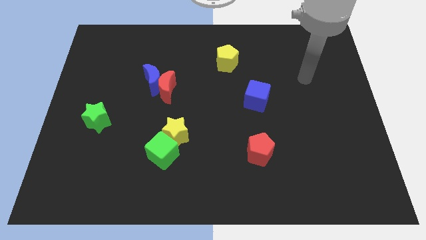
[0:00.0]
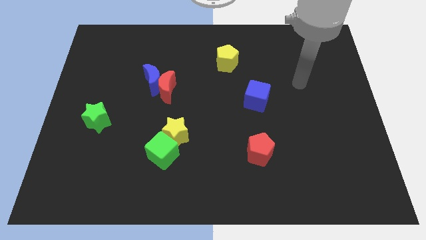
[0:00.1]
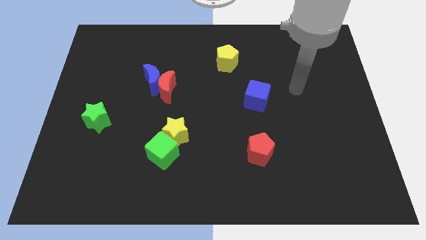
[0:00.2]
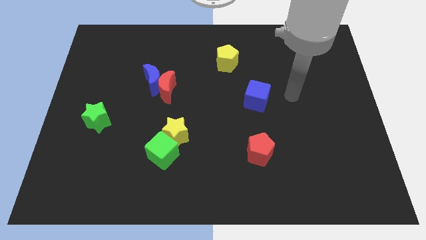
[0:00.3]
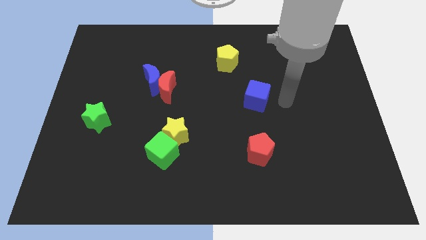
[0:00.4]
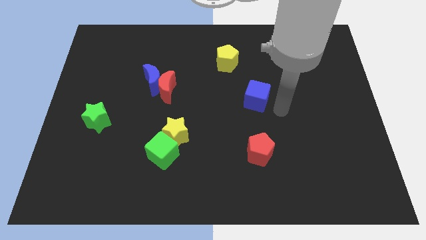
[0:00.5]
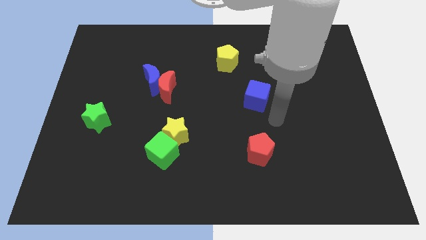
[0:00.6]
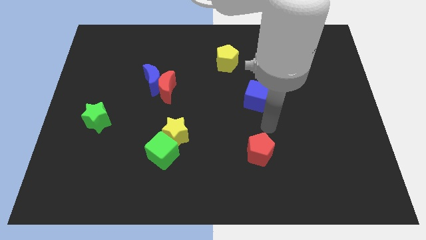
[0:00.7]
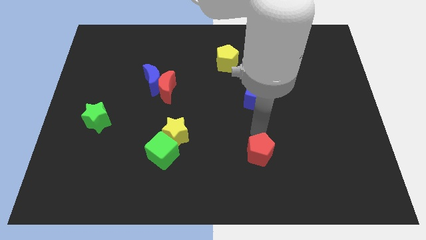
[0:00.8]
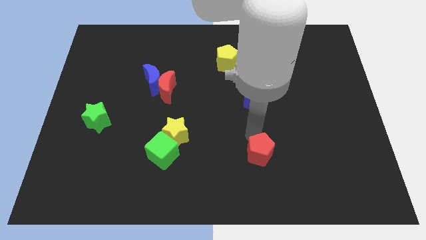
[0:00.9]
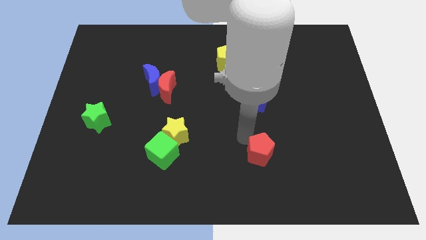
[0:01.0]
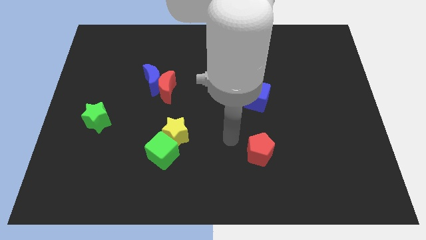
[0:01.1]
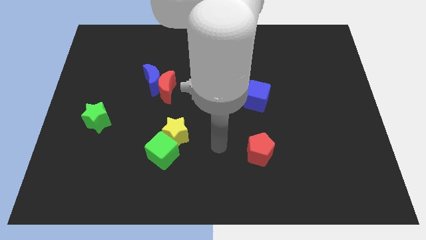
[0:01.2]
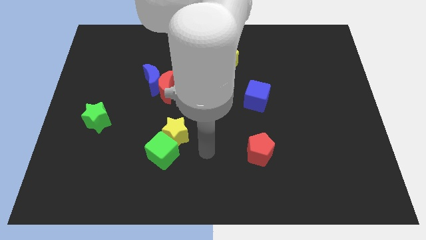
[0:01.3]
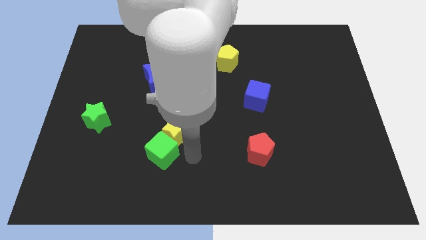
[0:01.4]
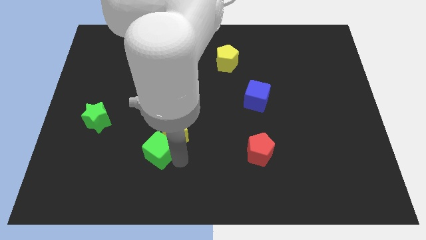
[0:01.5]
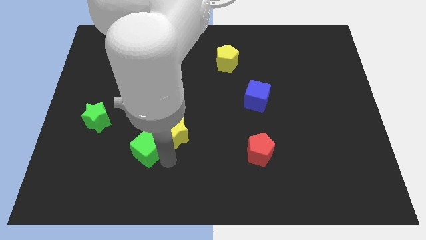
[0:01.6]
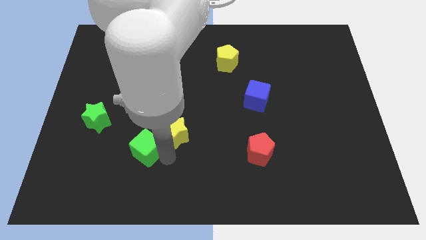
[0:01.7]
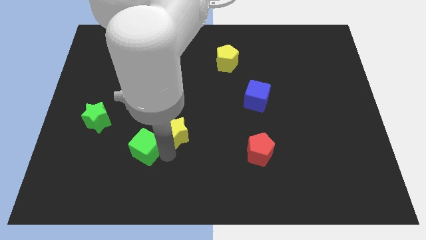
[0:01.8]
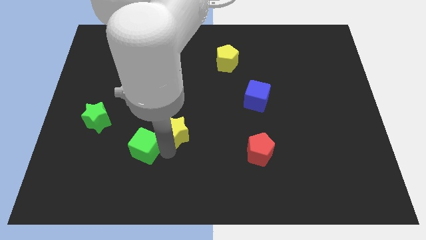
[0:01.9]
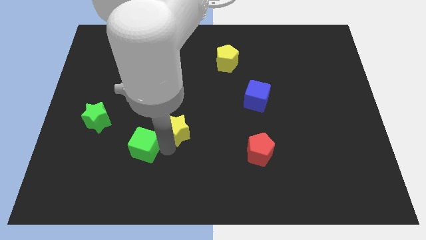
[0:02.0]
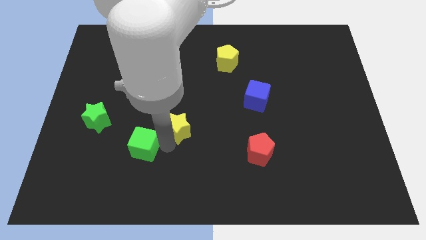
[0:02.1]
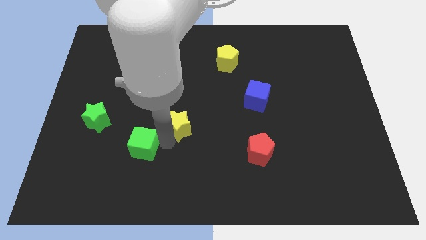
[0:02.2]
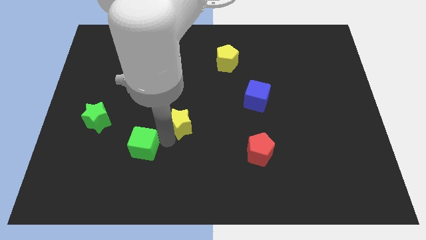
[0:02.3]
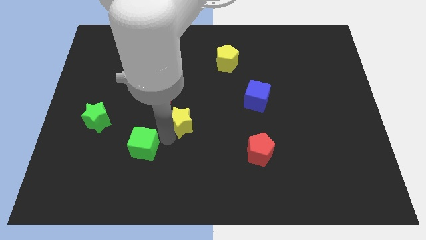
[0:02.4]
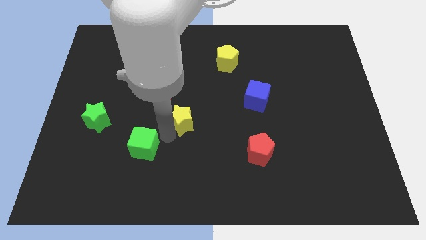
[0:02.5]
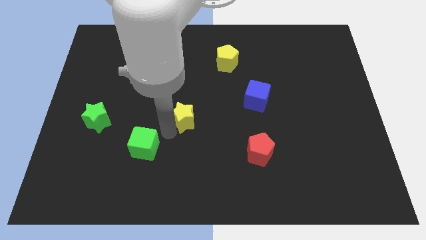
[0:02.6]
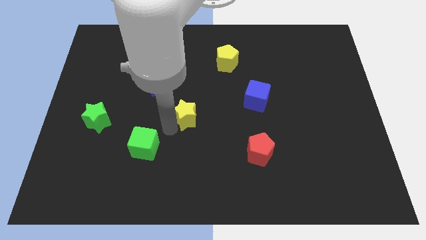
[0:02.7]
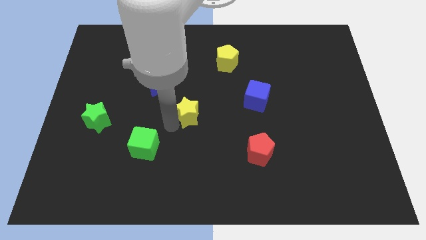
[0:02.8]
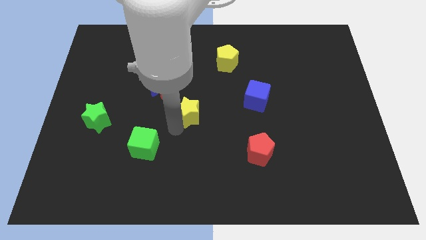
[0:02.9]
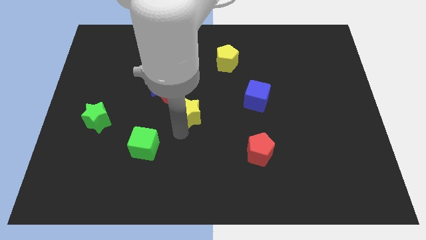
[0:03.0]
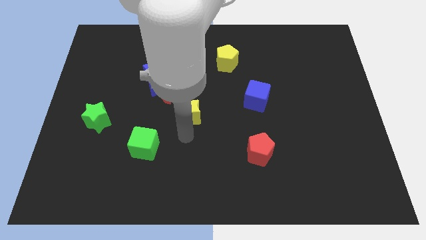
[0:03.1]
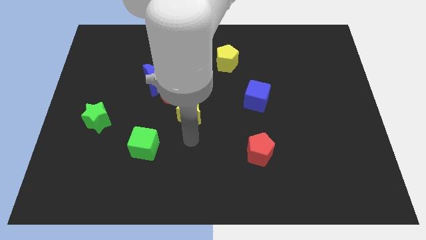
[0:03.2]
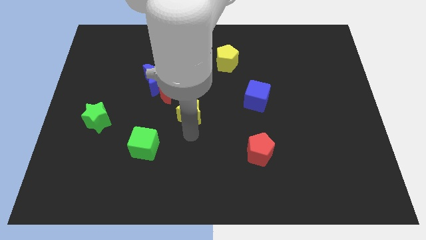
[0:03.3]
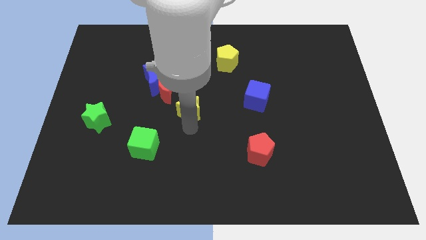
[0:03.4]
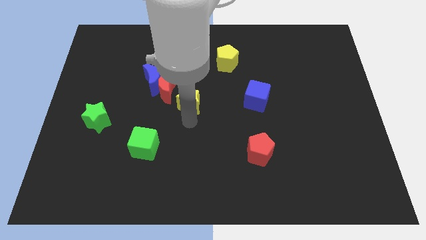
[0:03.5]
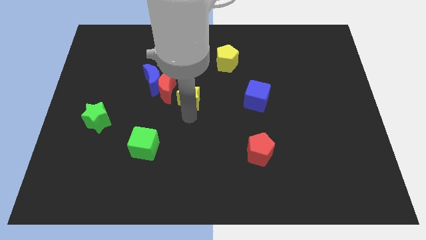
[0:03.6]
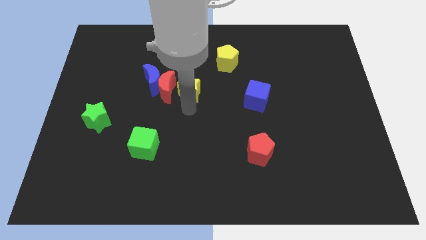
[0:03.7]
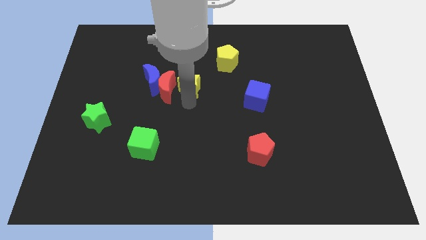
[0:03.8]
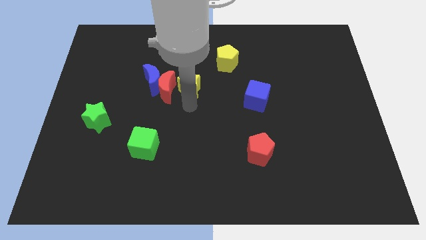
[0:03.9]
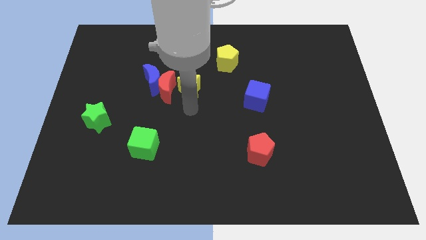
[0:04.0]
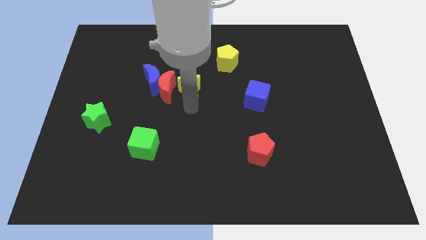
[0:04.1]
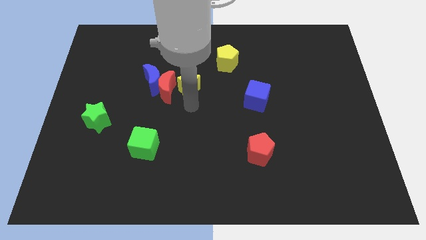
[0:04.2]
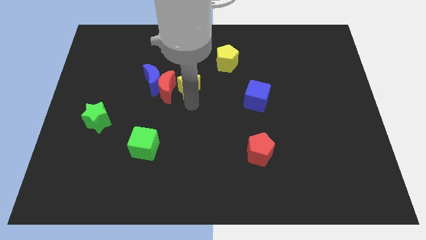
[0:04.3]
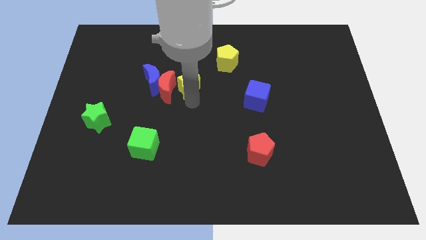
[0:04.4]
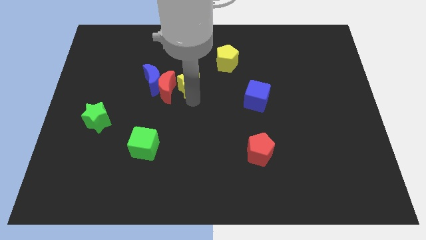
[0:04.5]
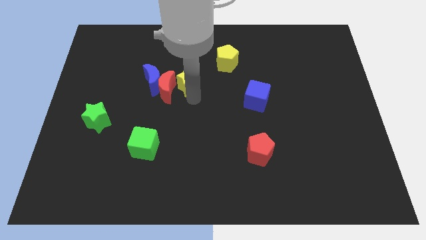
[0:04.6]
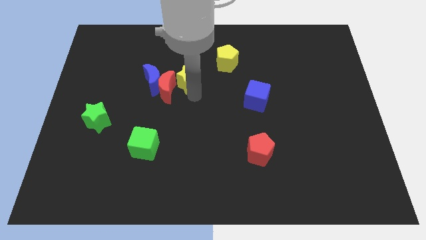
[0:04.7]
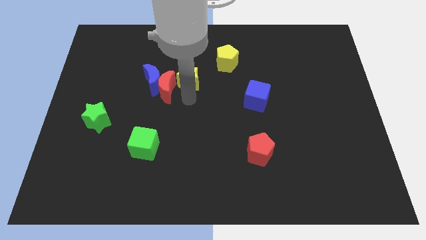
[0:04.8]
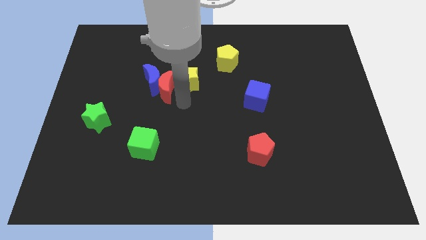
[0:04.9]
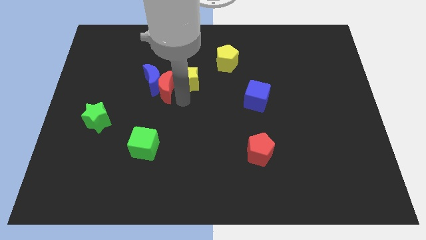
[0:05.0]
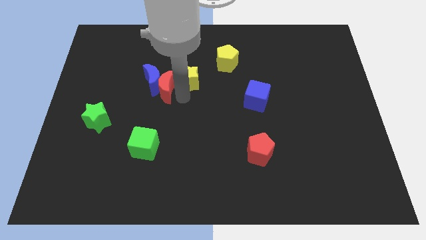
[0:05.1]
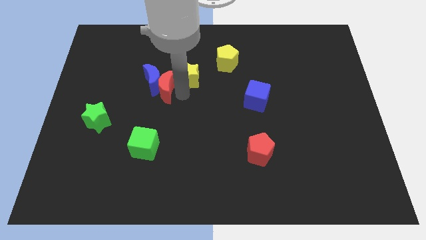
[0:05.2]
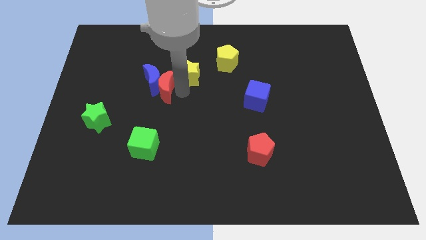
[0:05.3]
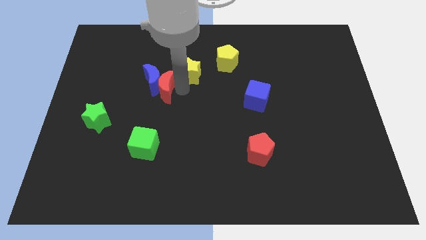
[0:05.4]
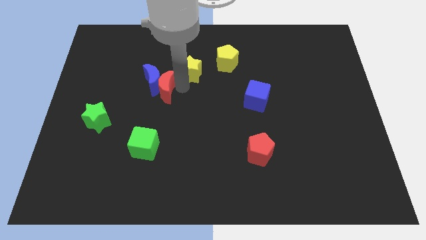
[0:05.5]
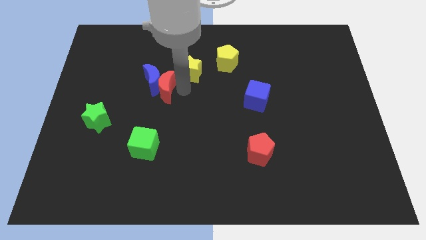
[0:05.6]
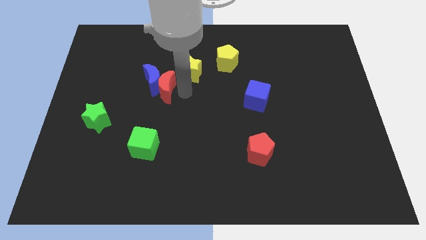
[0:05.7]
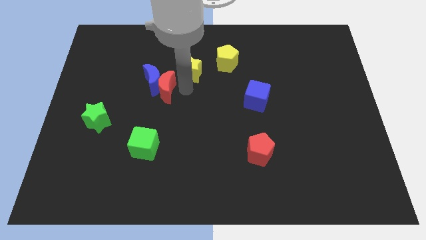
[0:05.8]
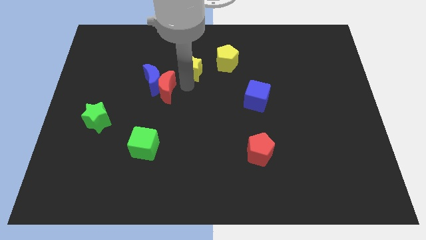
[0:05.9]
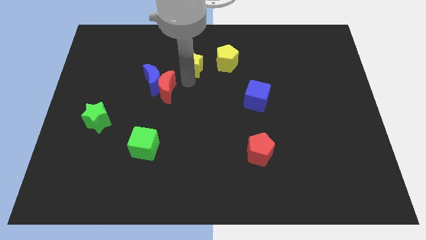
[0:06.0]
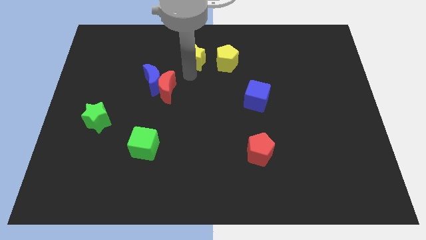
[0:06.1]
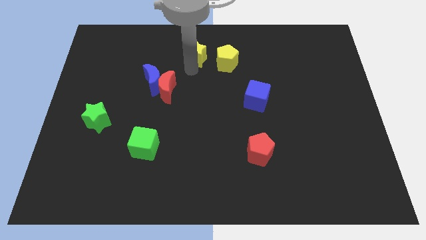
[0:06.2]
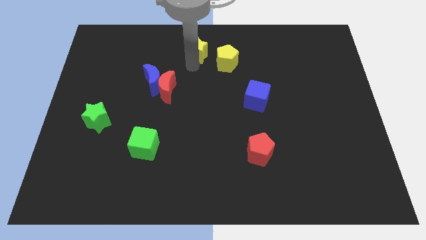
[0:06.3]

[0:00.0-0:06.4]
put the yellow star to the top side
